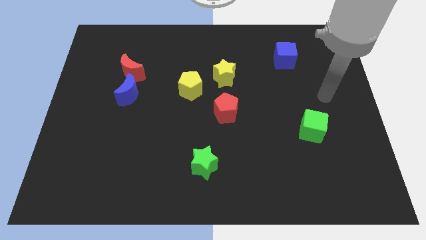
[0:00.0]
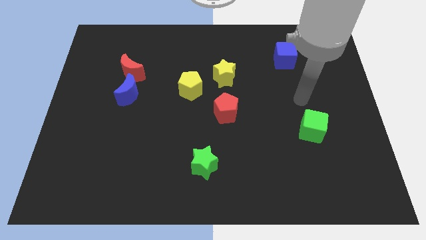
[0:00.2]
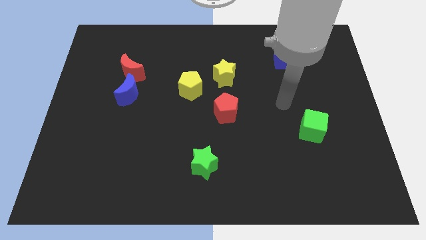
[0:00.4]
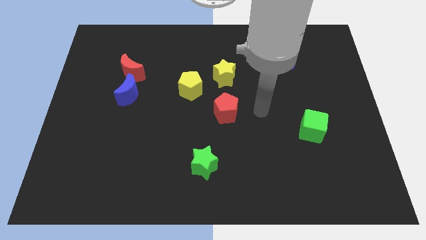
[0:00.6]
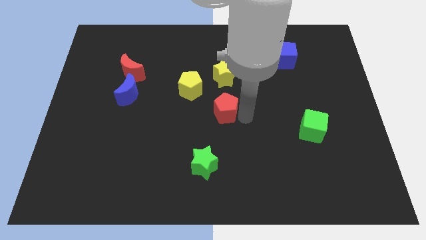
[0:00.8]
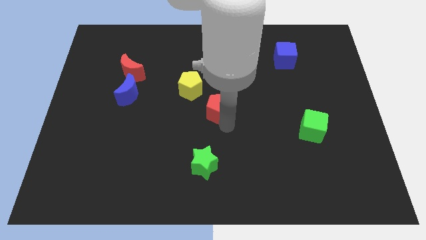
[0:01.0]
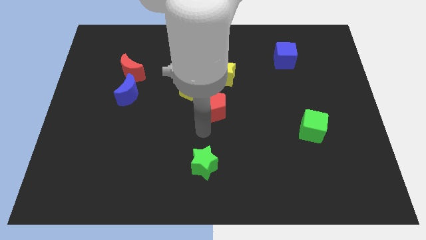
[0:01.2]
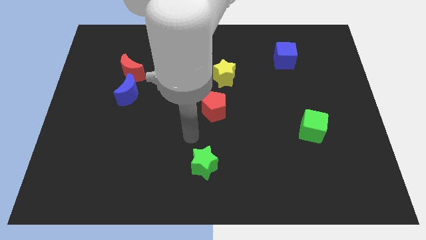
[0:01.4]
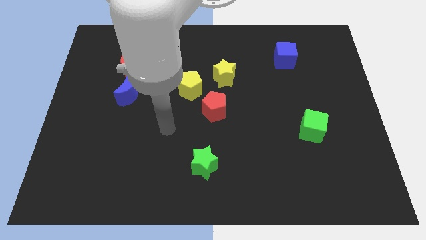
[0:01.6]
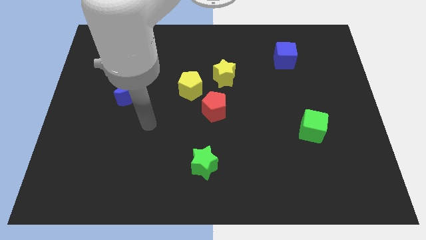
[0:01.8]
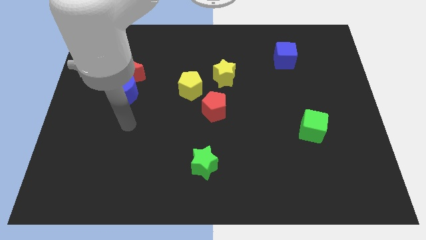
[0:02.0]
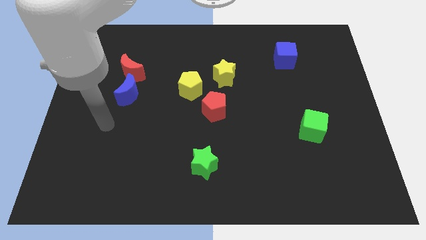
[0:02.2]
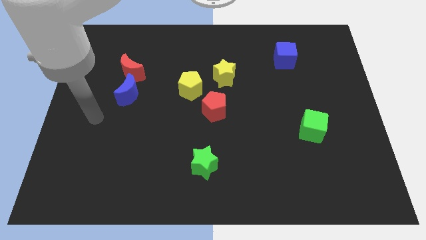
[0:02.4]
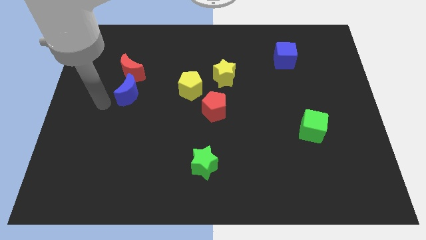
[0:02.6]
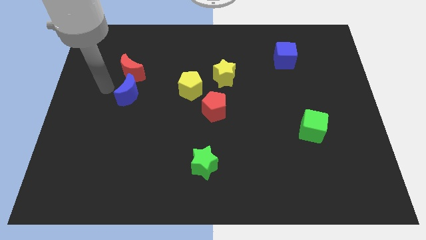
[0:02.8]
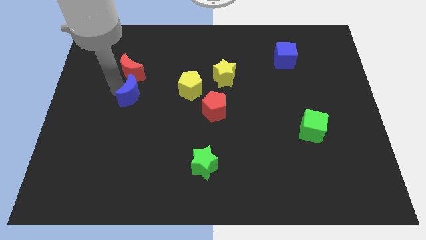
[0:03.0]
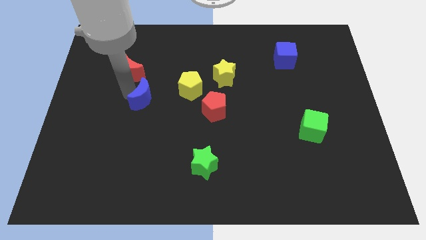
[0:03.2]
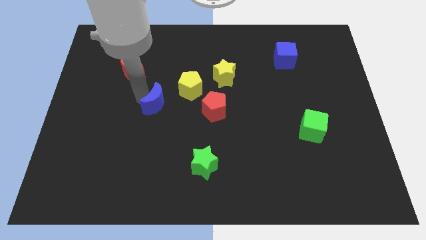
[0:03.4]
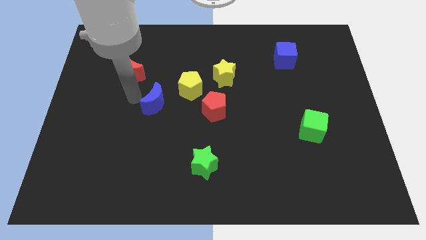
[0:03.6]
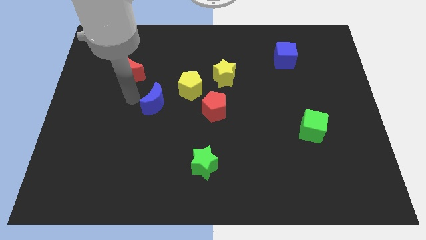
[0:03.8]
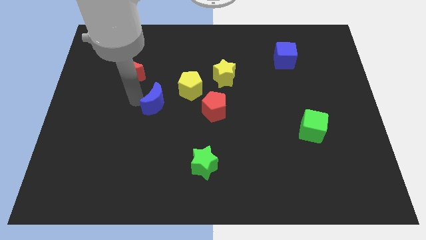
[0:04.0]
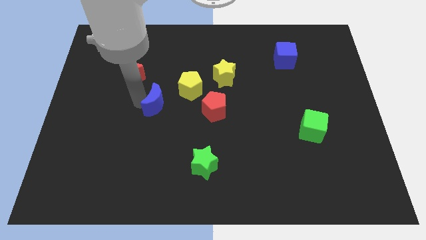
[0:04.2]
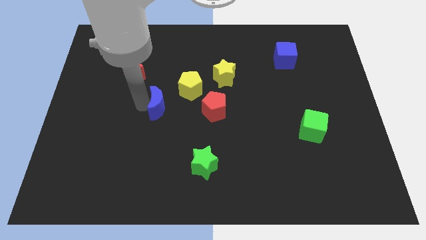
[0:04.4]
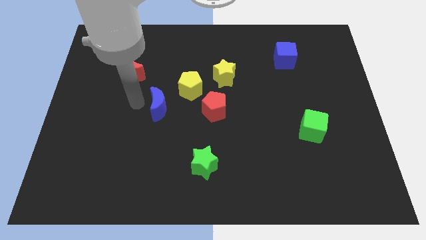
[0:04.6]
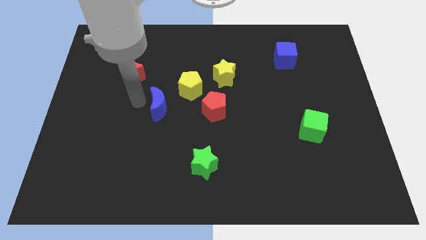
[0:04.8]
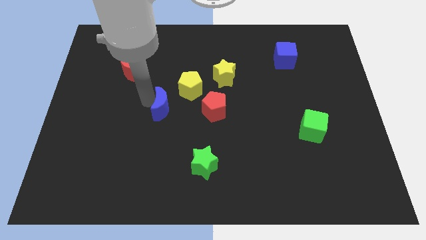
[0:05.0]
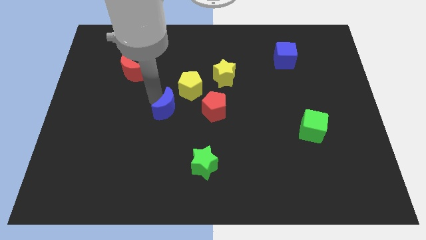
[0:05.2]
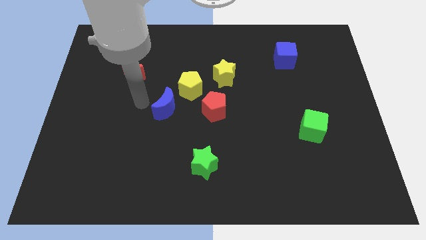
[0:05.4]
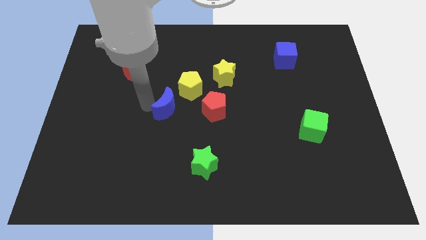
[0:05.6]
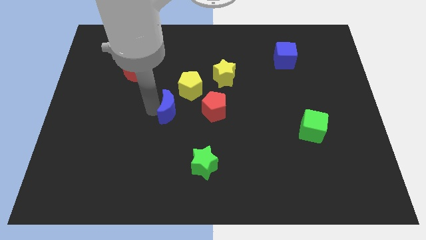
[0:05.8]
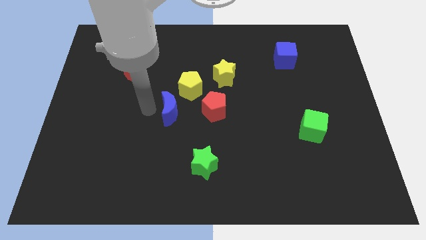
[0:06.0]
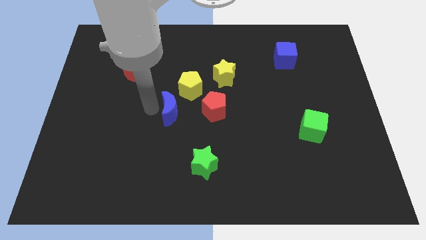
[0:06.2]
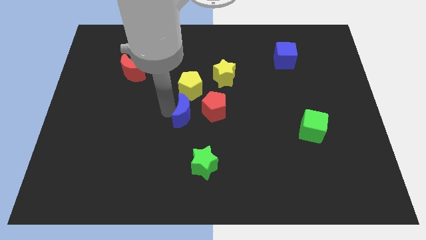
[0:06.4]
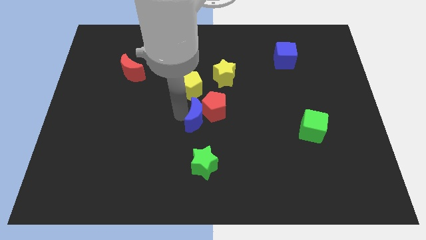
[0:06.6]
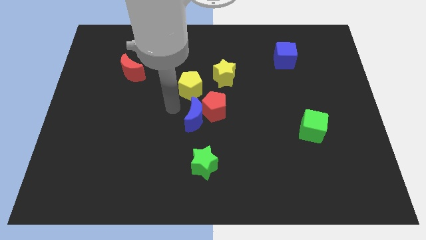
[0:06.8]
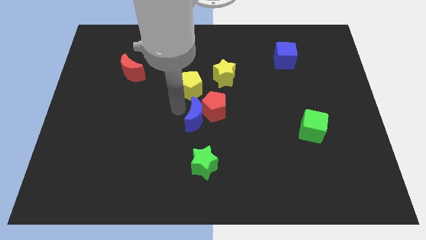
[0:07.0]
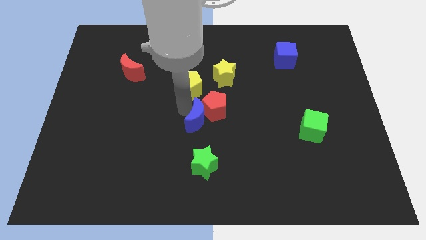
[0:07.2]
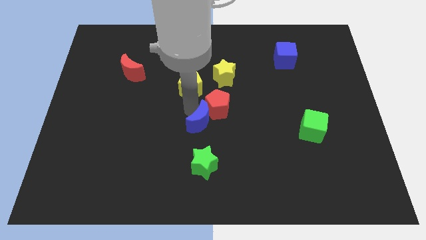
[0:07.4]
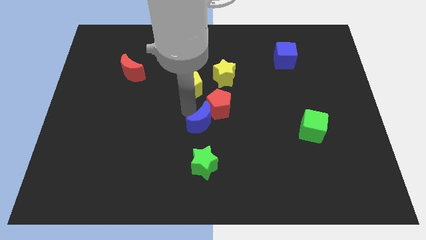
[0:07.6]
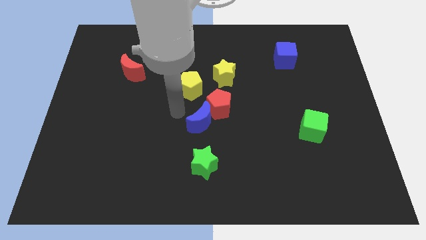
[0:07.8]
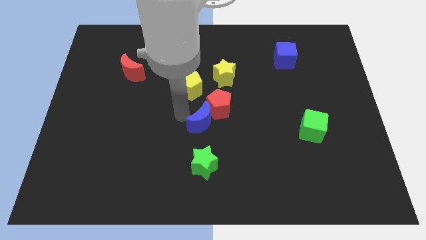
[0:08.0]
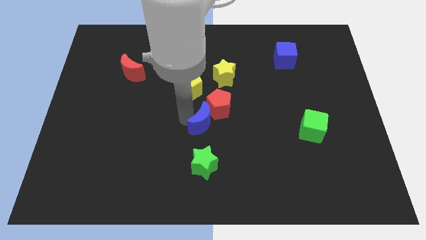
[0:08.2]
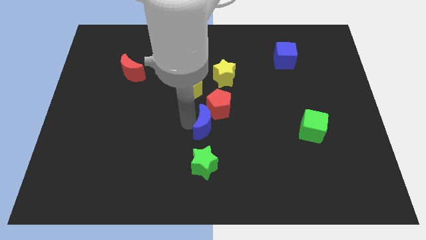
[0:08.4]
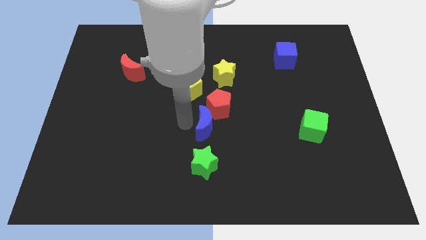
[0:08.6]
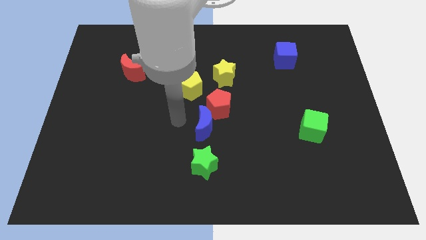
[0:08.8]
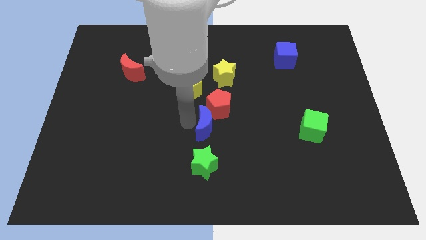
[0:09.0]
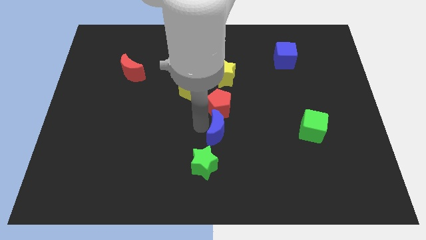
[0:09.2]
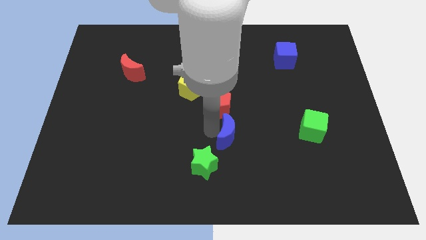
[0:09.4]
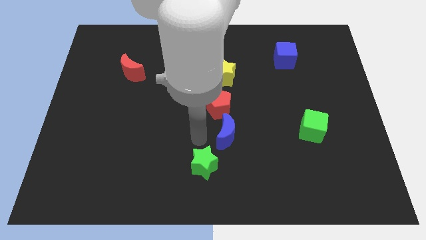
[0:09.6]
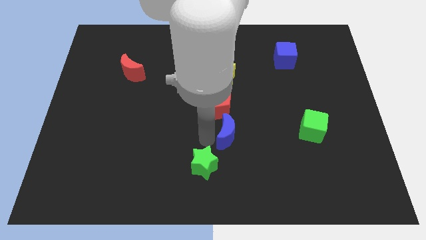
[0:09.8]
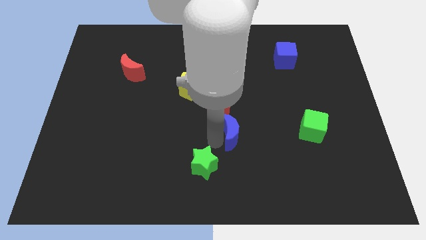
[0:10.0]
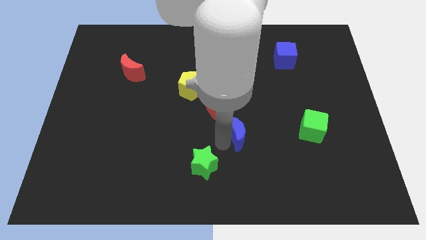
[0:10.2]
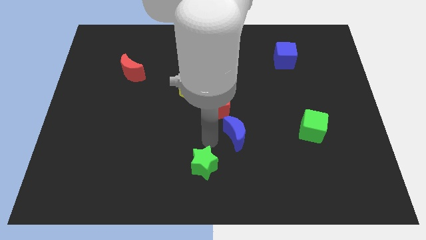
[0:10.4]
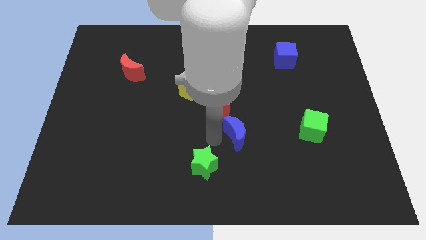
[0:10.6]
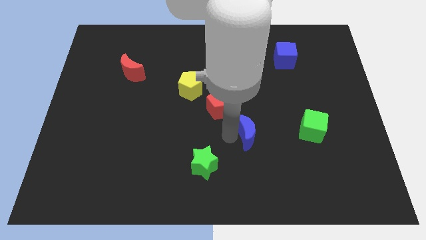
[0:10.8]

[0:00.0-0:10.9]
push the blue moon just left of the green cube

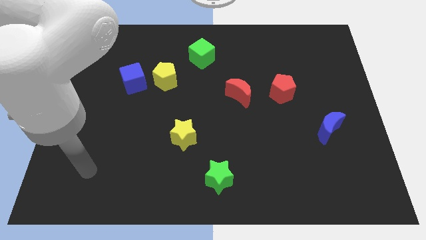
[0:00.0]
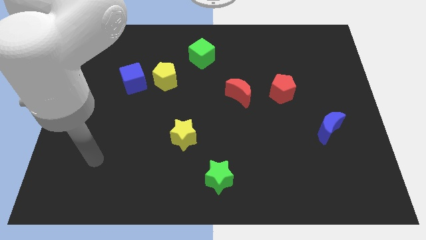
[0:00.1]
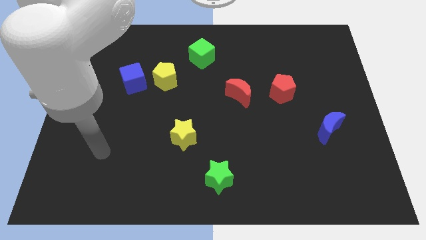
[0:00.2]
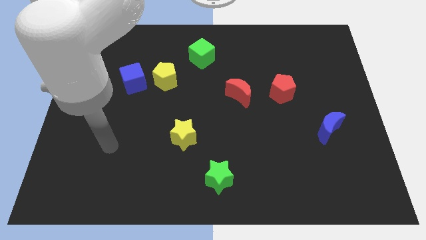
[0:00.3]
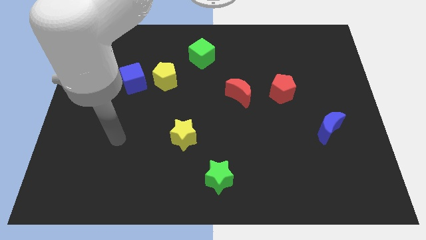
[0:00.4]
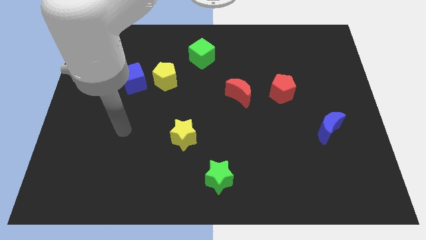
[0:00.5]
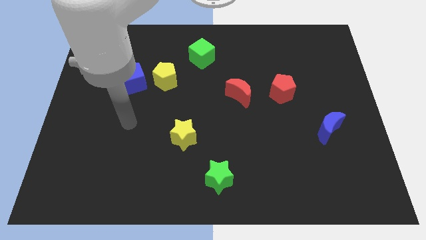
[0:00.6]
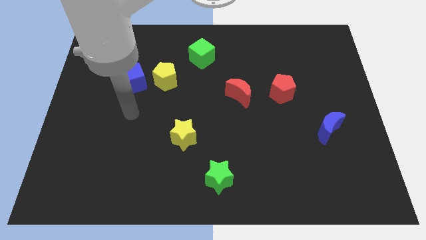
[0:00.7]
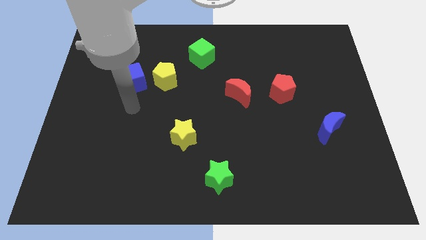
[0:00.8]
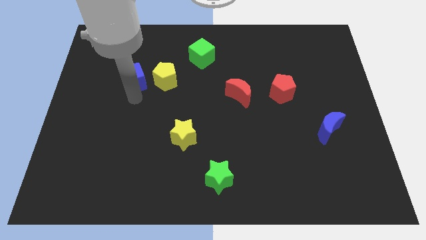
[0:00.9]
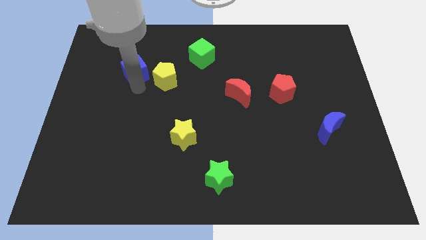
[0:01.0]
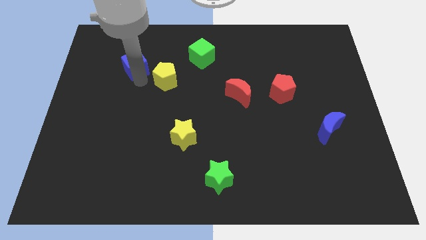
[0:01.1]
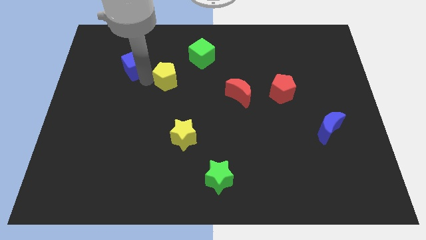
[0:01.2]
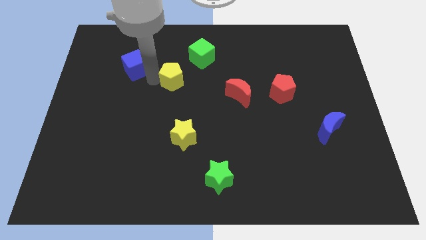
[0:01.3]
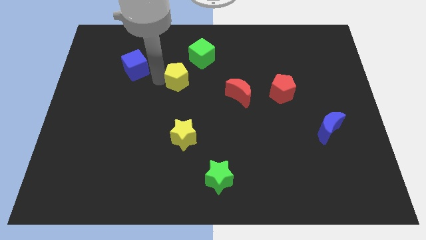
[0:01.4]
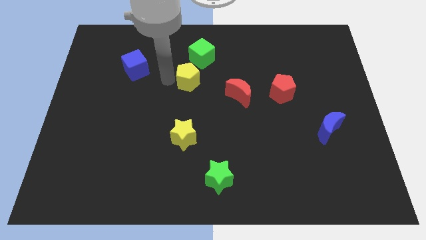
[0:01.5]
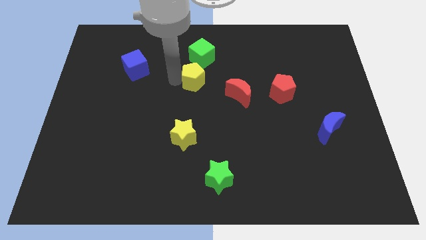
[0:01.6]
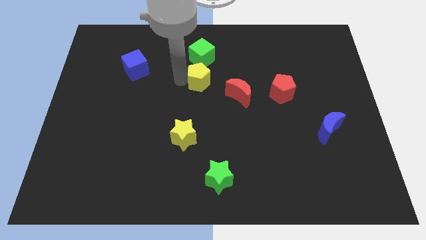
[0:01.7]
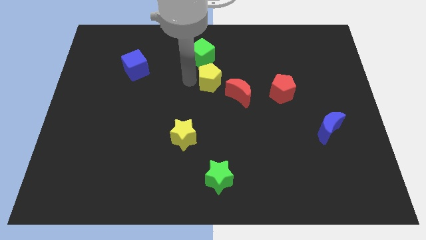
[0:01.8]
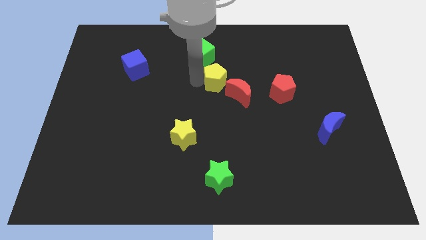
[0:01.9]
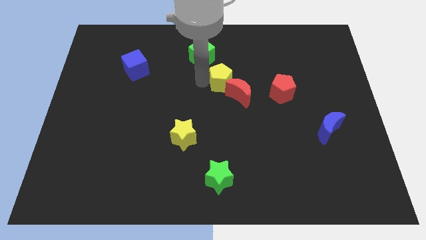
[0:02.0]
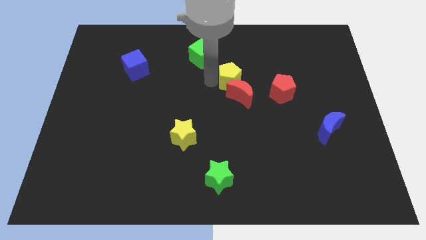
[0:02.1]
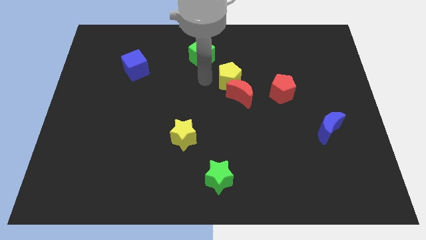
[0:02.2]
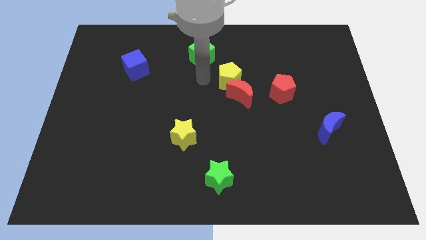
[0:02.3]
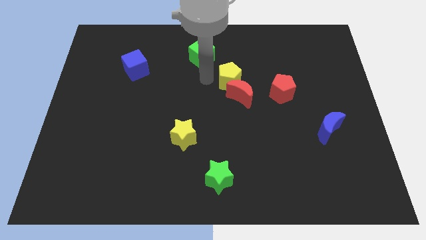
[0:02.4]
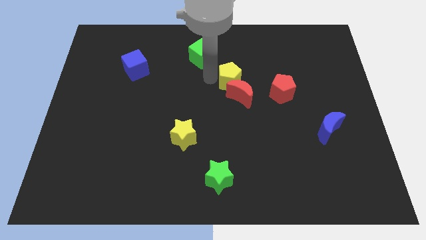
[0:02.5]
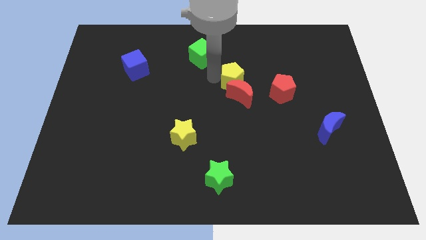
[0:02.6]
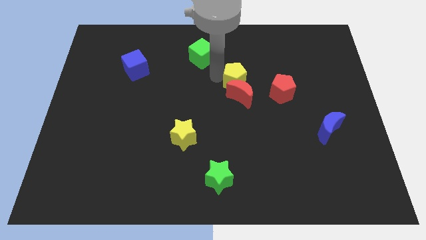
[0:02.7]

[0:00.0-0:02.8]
put the yellow pentagon to the top right of the red moon
